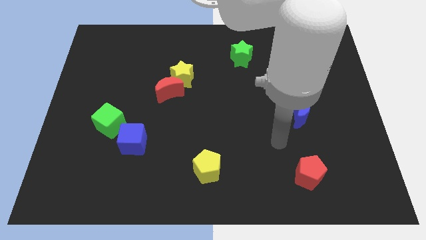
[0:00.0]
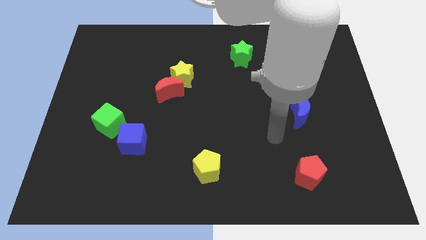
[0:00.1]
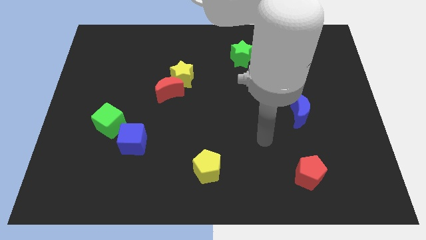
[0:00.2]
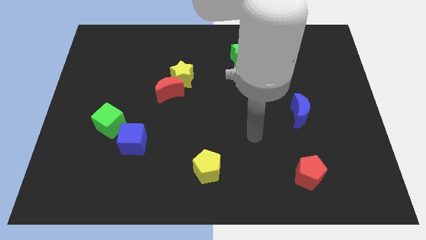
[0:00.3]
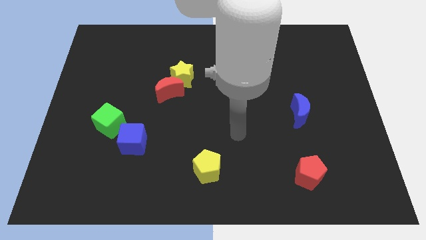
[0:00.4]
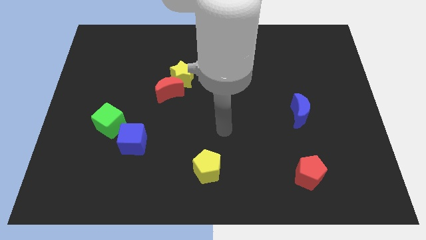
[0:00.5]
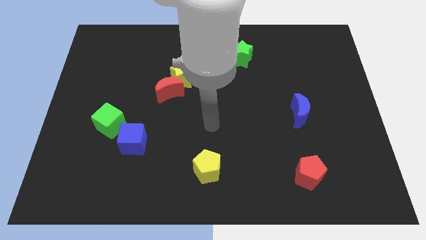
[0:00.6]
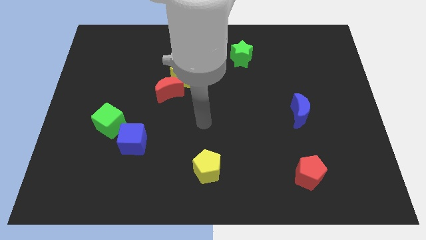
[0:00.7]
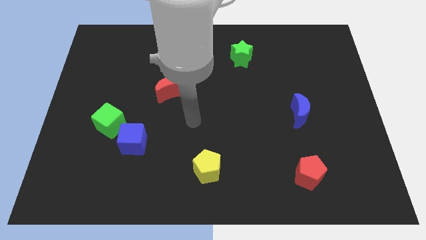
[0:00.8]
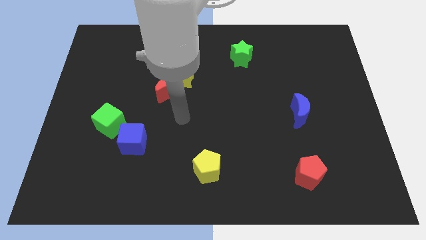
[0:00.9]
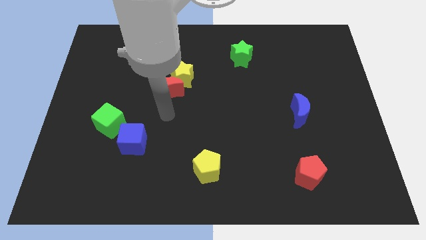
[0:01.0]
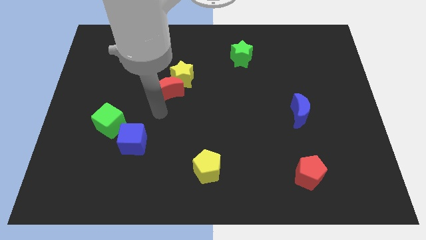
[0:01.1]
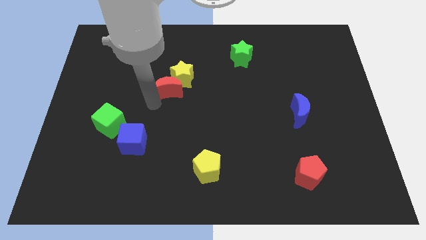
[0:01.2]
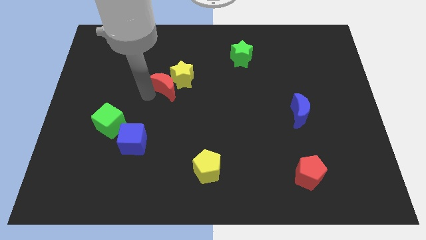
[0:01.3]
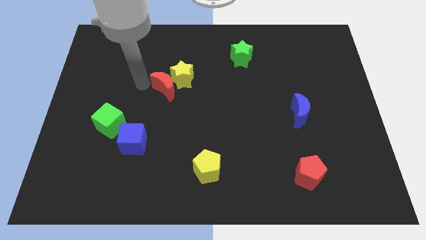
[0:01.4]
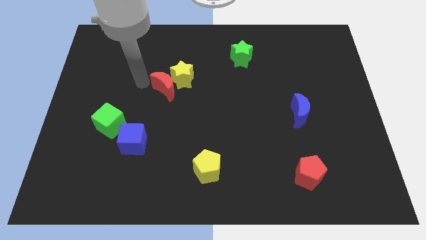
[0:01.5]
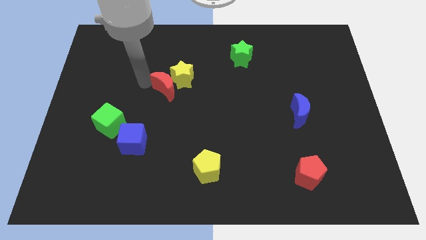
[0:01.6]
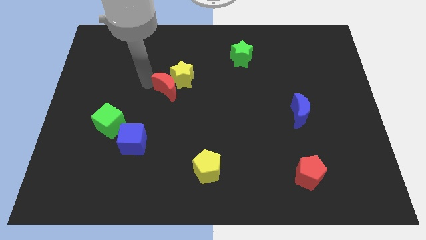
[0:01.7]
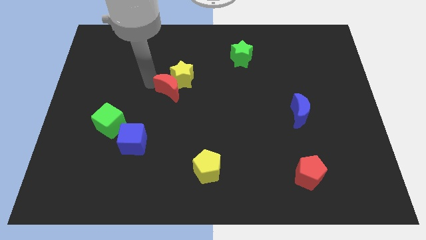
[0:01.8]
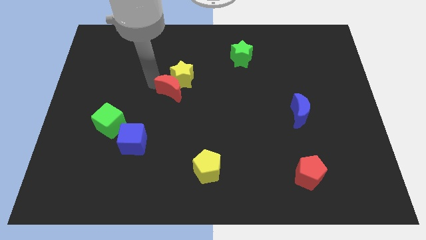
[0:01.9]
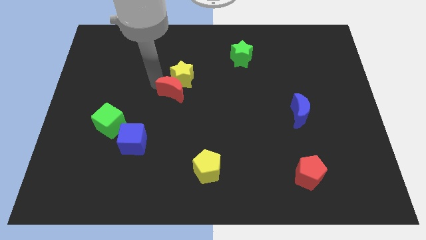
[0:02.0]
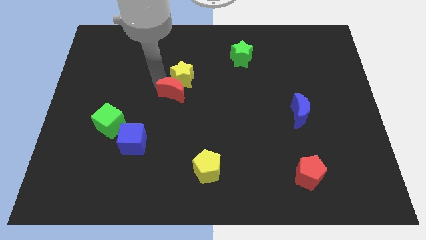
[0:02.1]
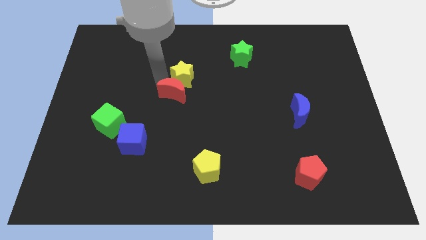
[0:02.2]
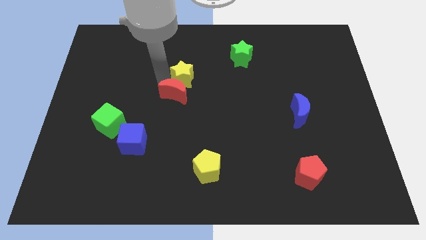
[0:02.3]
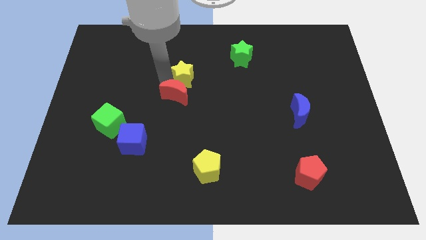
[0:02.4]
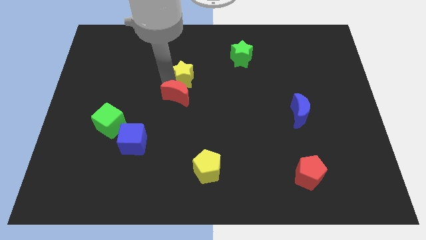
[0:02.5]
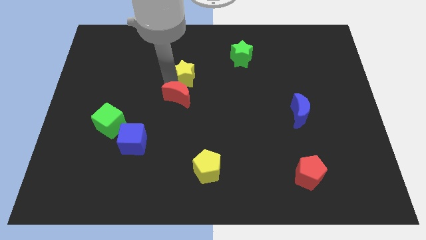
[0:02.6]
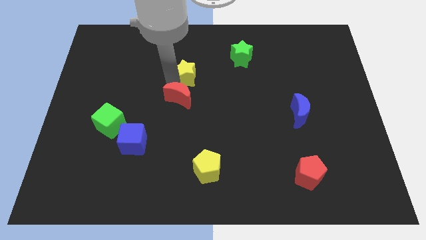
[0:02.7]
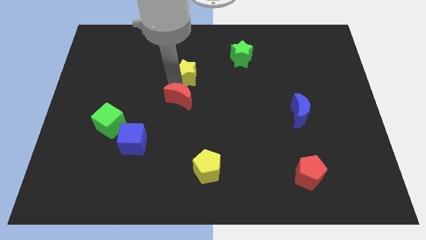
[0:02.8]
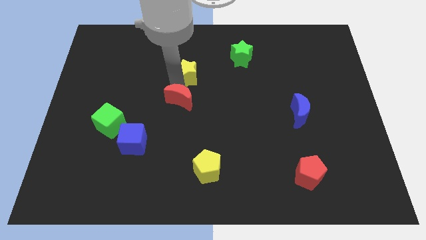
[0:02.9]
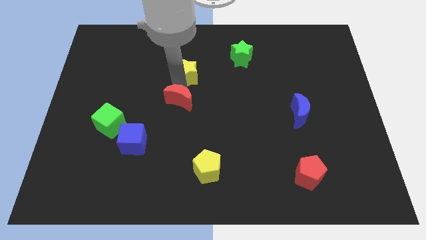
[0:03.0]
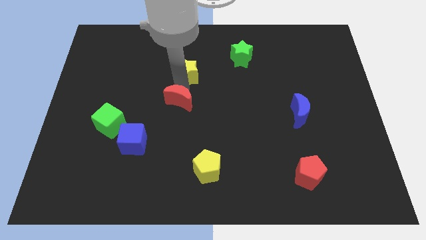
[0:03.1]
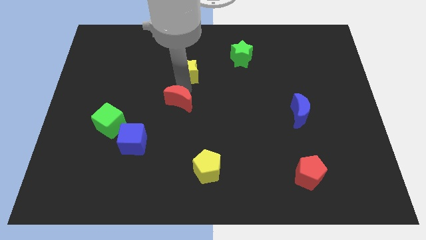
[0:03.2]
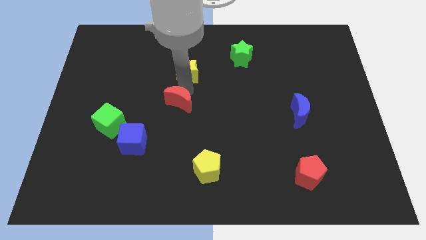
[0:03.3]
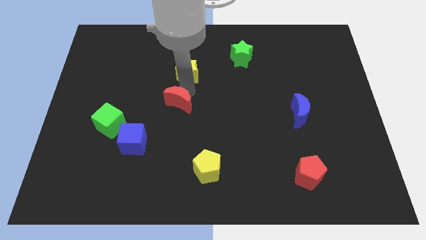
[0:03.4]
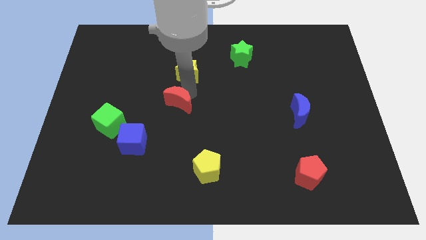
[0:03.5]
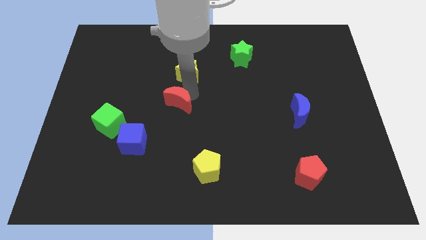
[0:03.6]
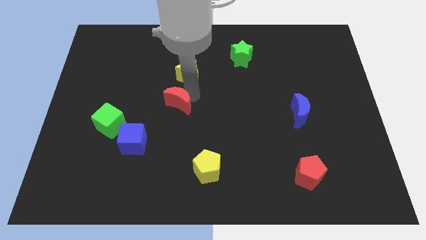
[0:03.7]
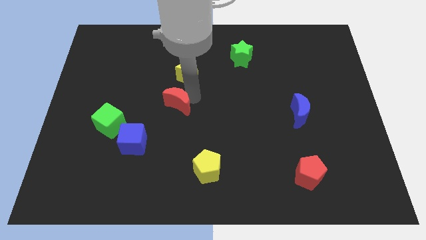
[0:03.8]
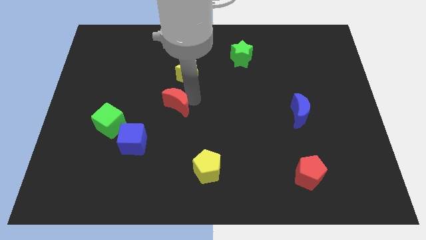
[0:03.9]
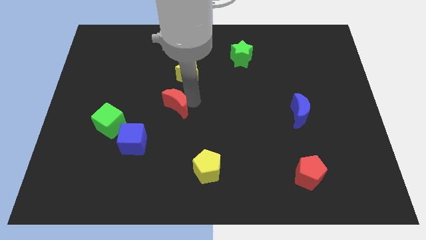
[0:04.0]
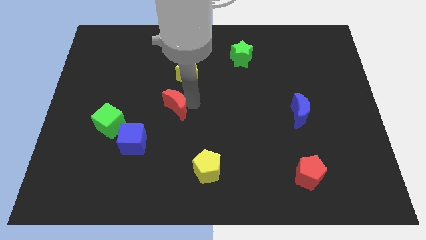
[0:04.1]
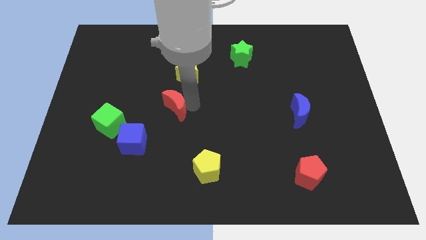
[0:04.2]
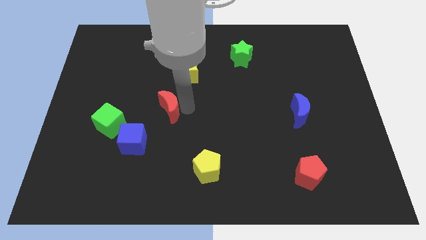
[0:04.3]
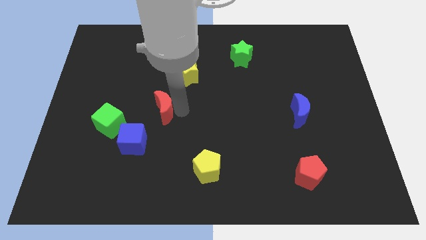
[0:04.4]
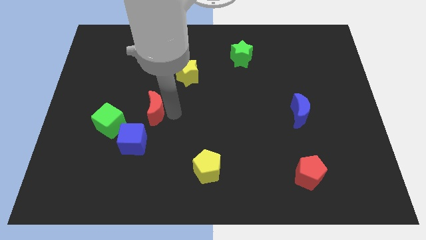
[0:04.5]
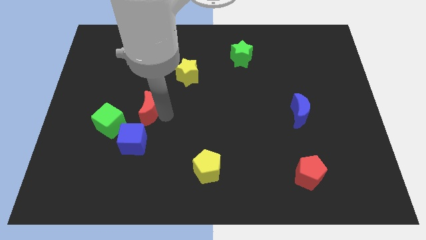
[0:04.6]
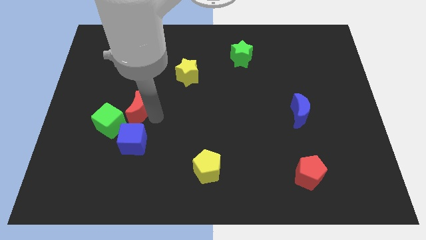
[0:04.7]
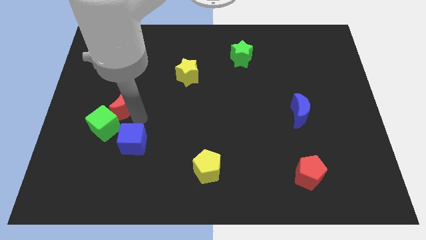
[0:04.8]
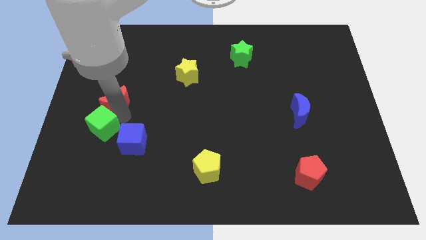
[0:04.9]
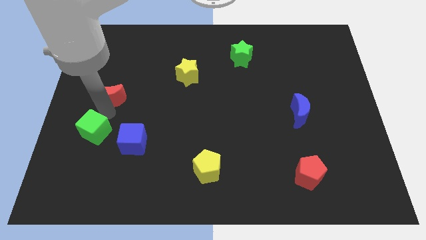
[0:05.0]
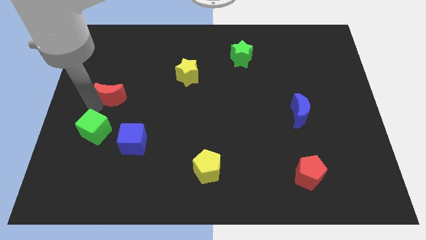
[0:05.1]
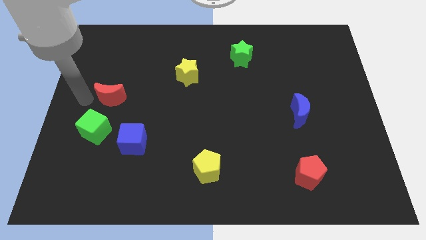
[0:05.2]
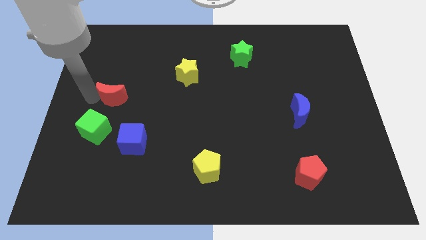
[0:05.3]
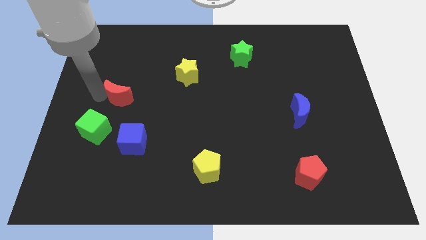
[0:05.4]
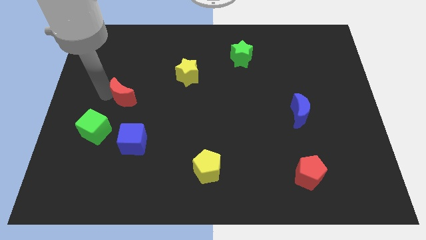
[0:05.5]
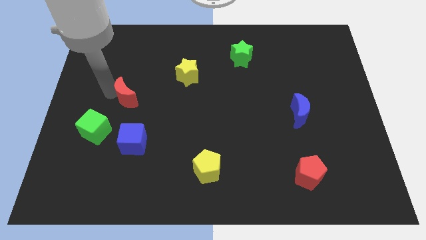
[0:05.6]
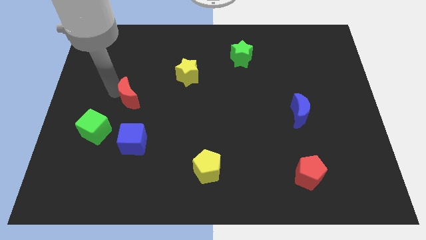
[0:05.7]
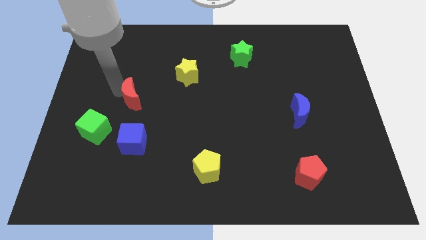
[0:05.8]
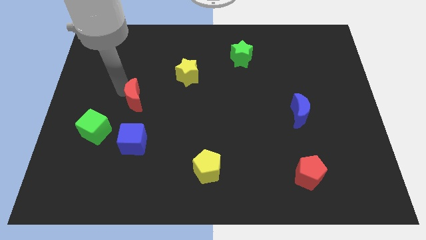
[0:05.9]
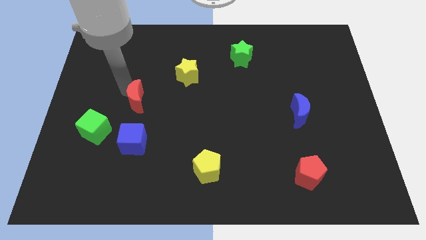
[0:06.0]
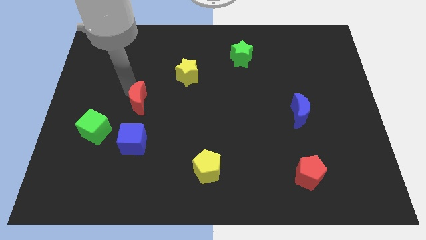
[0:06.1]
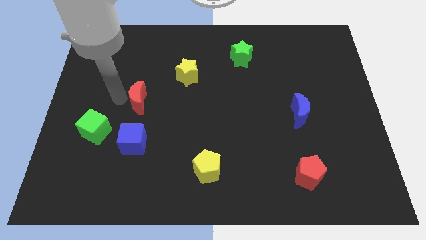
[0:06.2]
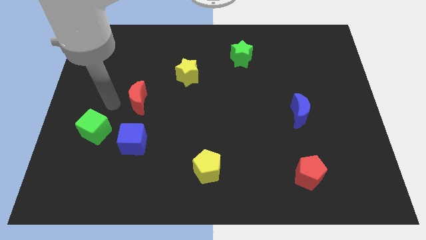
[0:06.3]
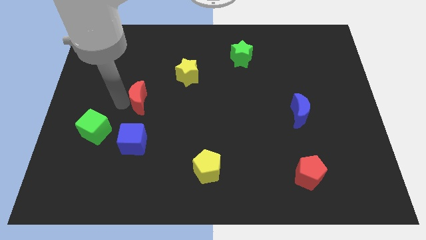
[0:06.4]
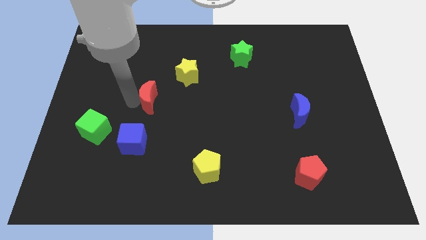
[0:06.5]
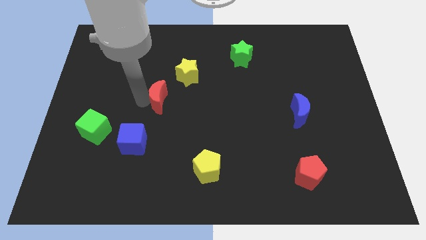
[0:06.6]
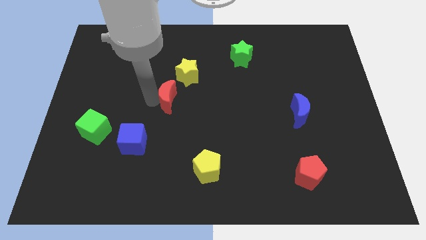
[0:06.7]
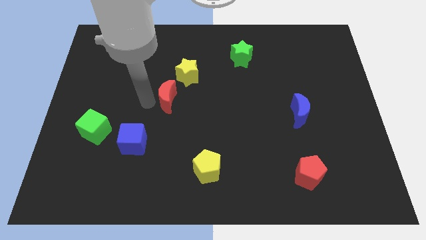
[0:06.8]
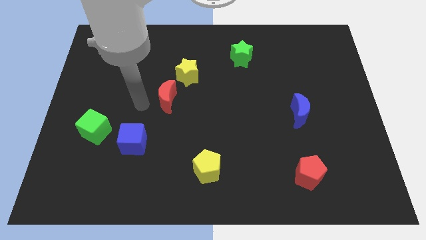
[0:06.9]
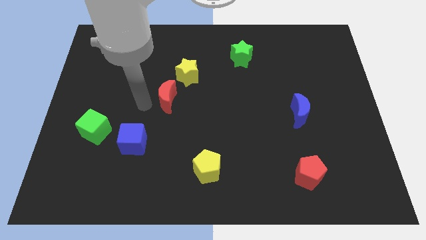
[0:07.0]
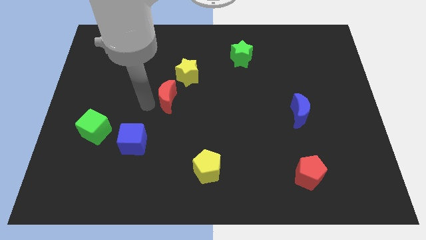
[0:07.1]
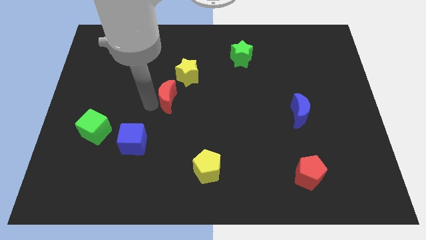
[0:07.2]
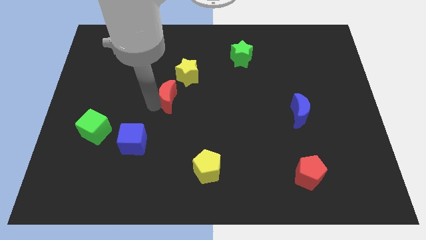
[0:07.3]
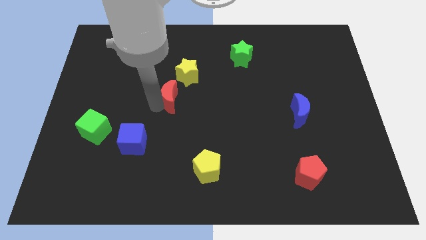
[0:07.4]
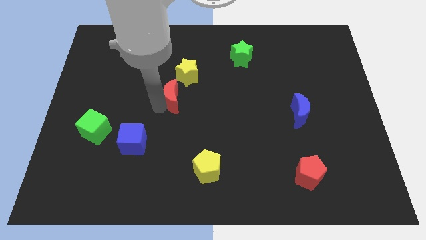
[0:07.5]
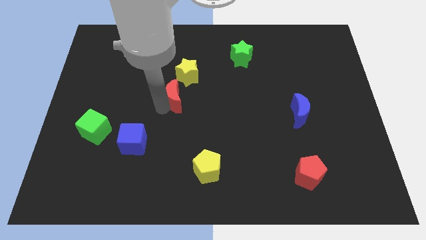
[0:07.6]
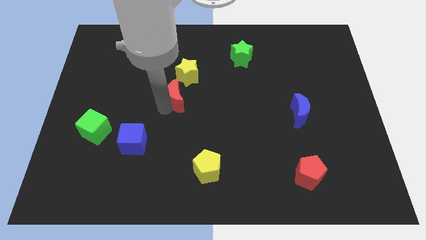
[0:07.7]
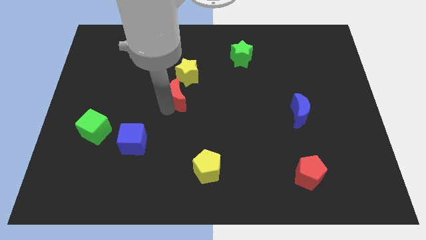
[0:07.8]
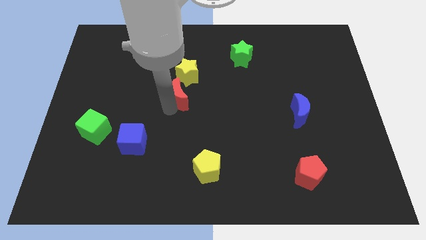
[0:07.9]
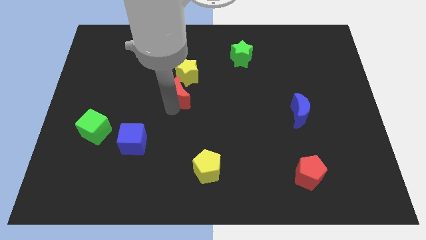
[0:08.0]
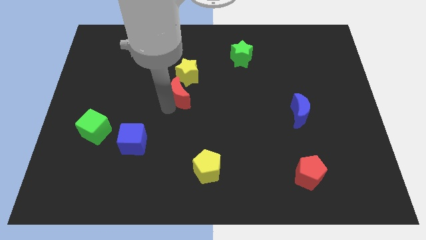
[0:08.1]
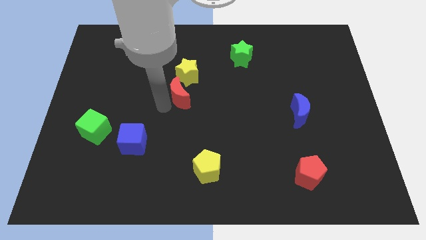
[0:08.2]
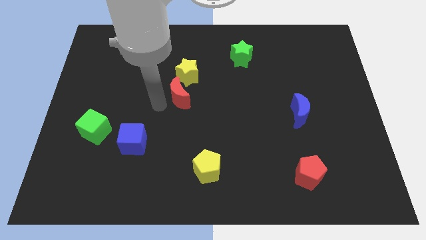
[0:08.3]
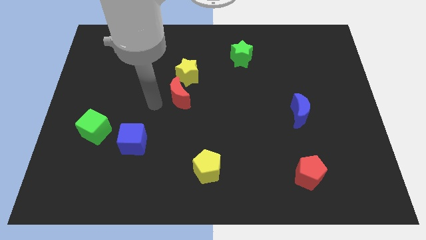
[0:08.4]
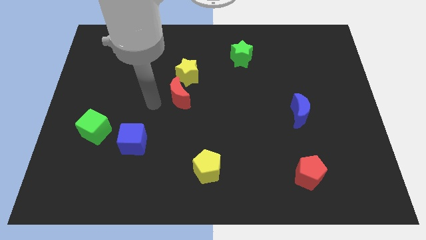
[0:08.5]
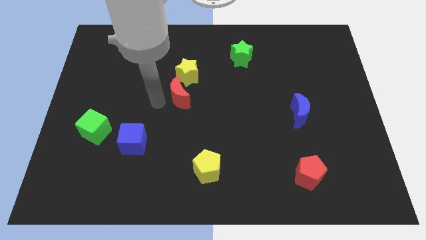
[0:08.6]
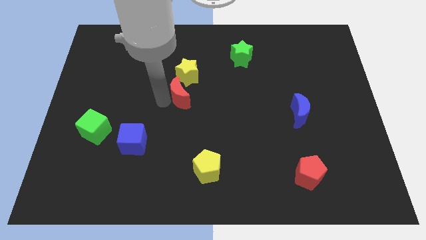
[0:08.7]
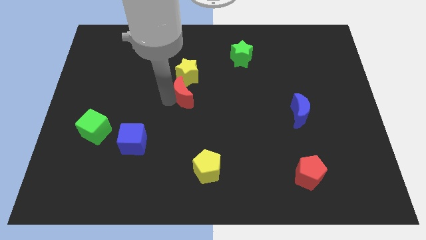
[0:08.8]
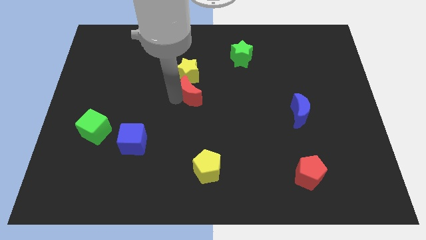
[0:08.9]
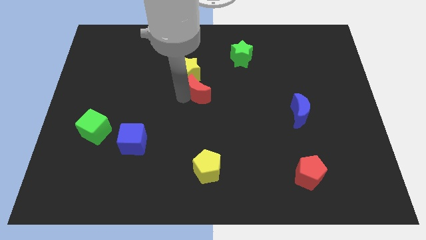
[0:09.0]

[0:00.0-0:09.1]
slightly move the red moon right
